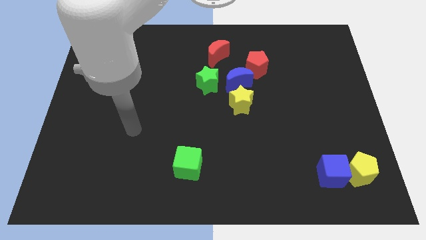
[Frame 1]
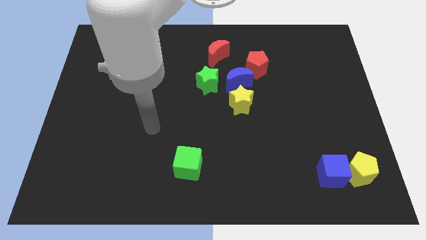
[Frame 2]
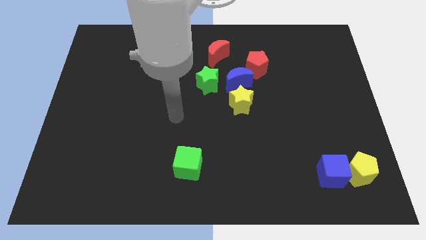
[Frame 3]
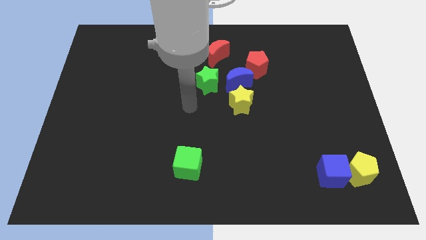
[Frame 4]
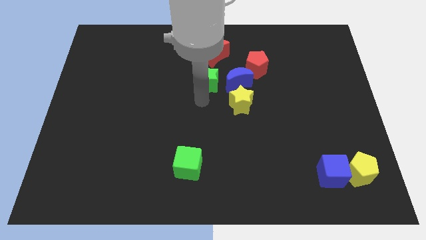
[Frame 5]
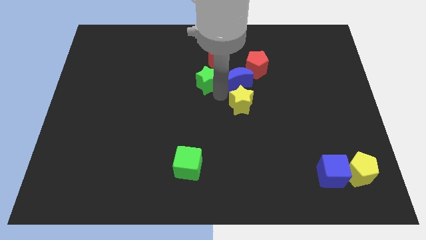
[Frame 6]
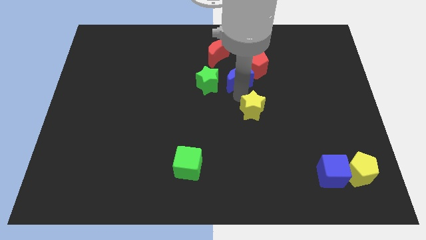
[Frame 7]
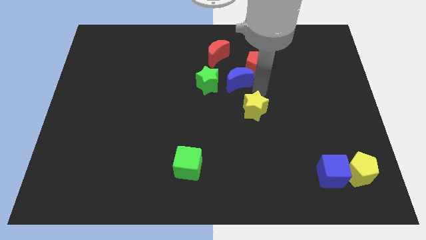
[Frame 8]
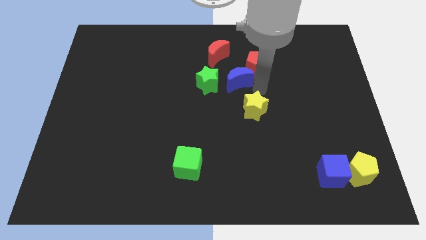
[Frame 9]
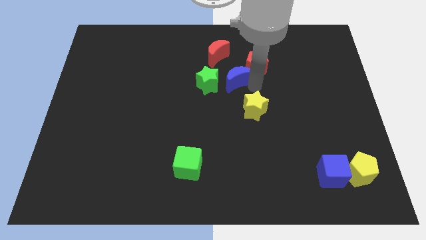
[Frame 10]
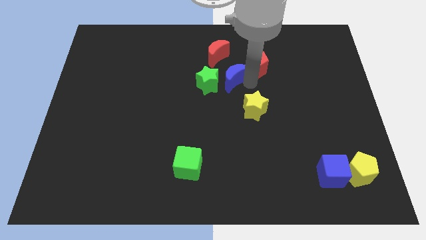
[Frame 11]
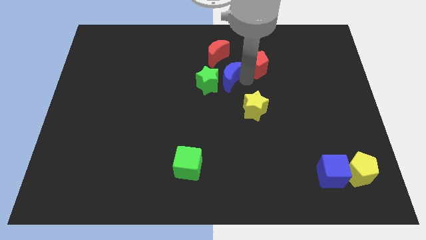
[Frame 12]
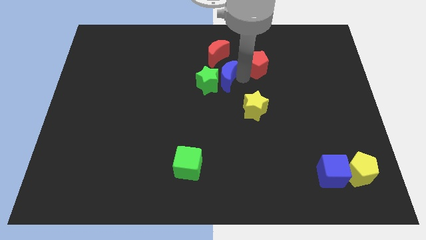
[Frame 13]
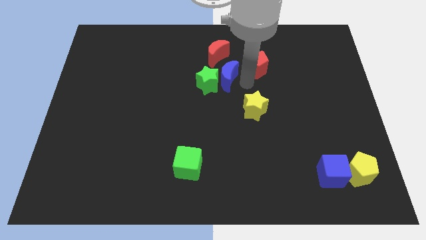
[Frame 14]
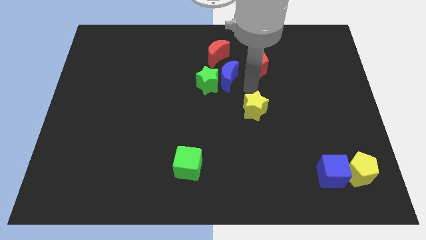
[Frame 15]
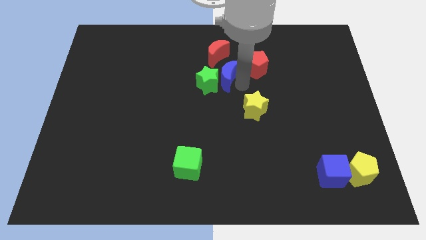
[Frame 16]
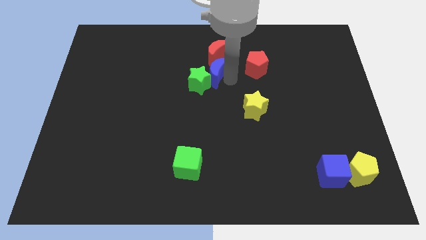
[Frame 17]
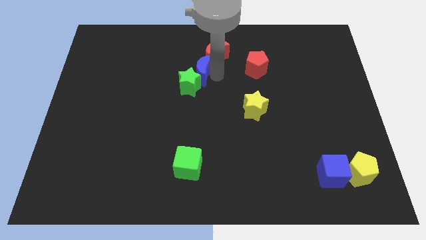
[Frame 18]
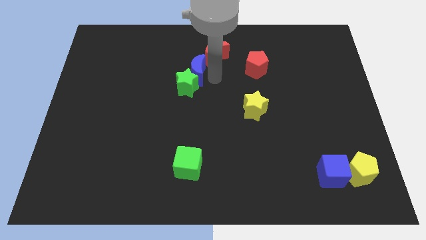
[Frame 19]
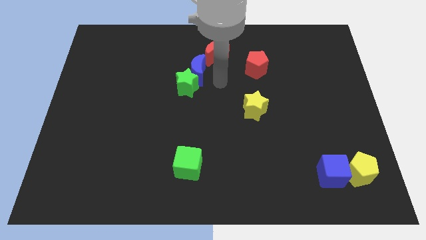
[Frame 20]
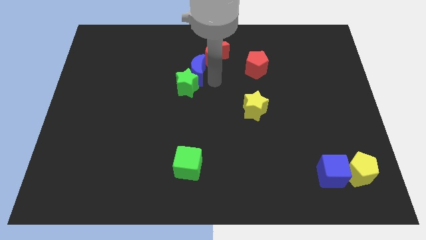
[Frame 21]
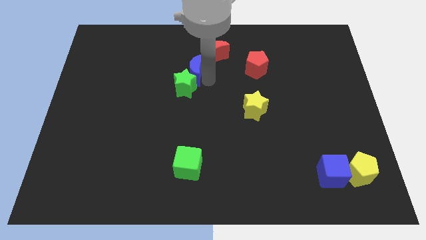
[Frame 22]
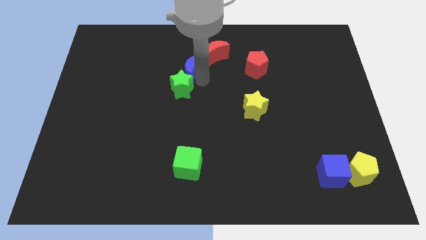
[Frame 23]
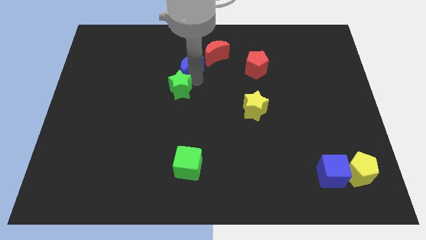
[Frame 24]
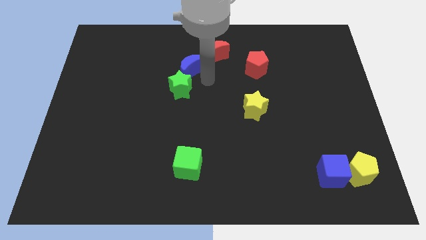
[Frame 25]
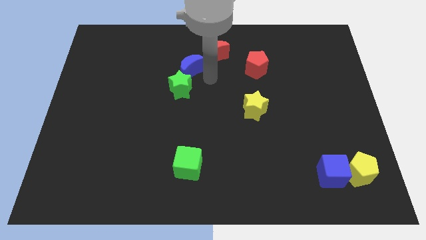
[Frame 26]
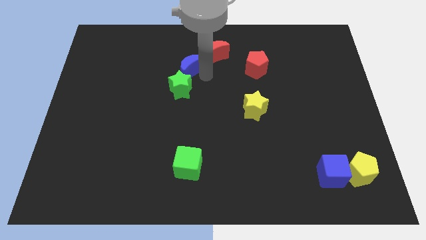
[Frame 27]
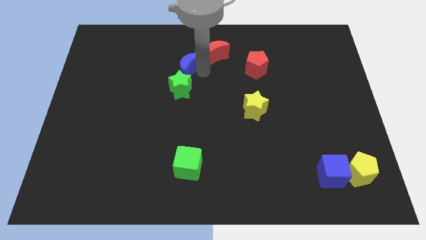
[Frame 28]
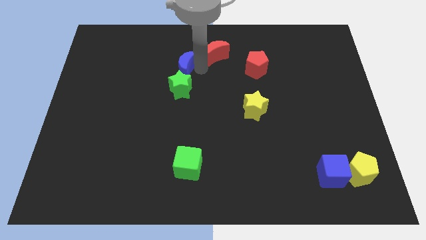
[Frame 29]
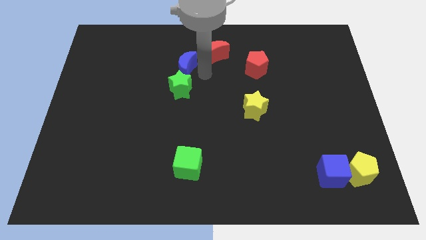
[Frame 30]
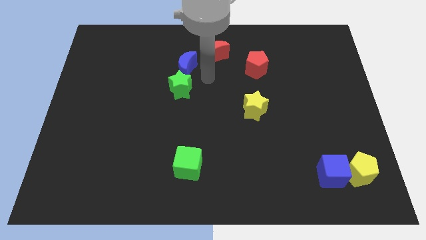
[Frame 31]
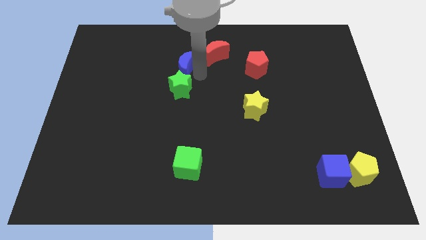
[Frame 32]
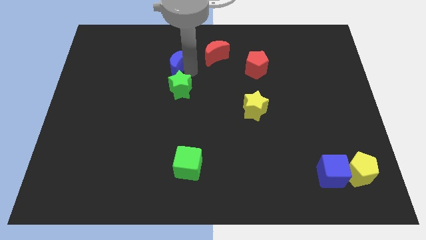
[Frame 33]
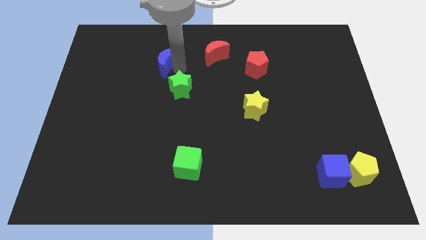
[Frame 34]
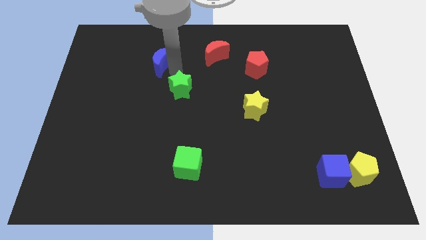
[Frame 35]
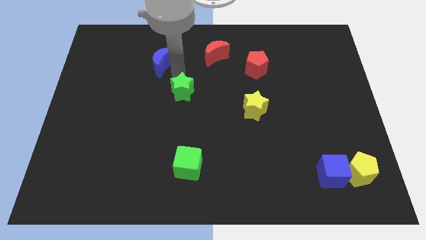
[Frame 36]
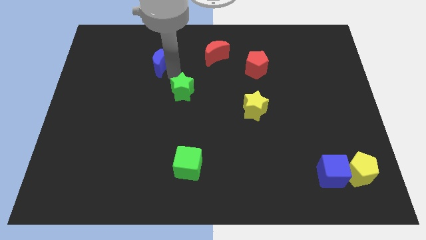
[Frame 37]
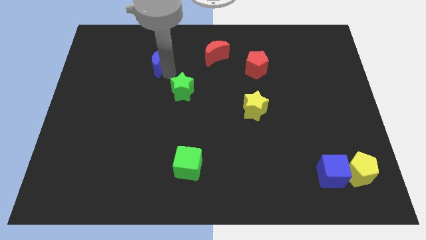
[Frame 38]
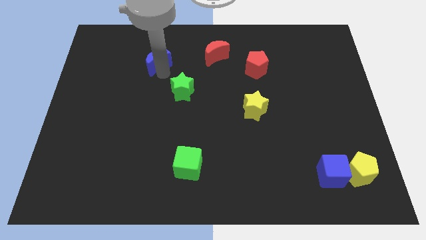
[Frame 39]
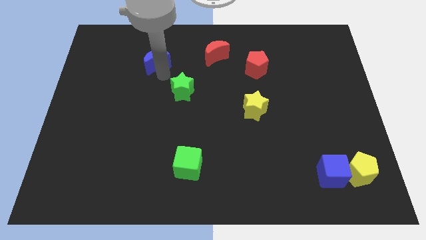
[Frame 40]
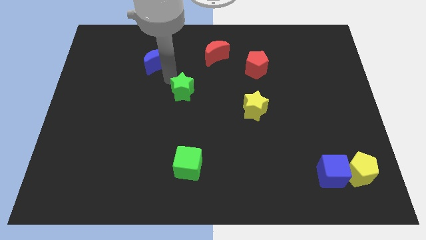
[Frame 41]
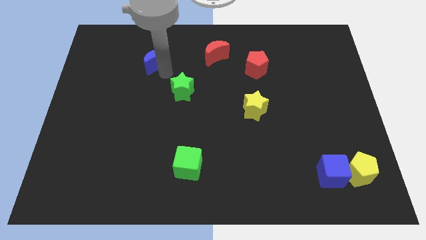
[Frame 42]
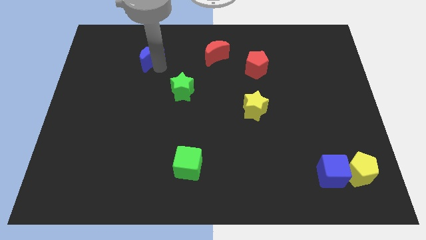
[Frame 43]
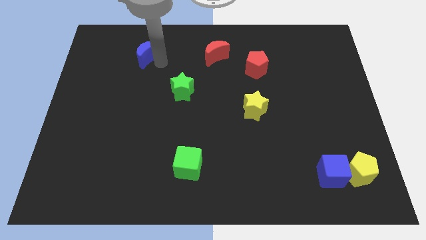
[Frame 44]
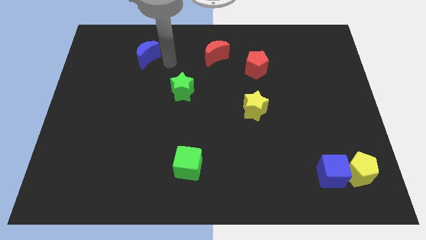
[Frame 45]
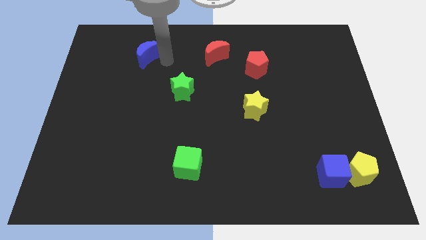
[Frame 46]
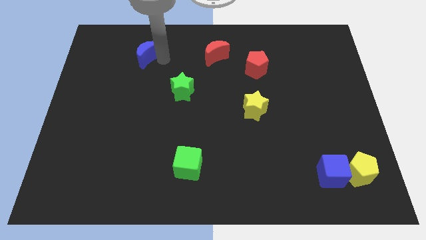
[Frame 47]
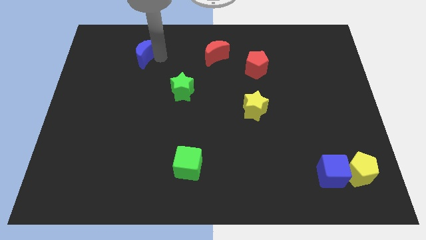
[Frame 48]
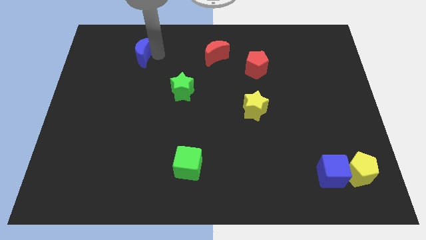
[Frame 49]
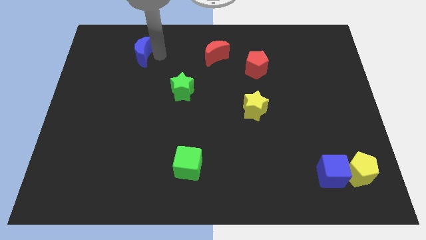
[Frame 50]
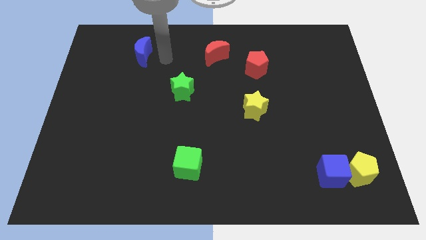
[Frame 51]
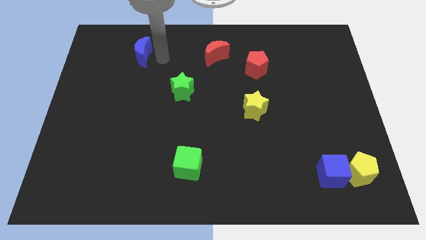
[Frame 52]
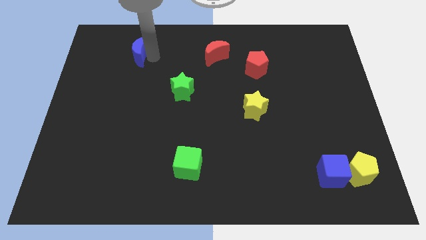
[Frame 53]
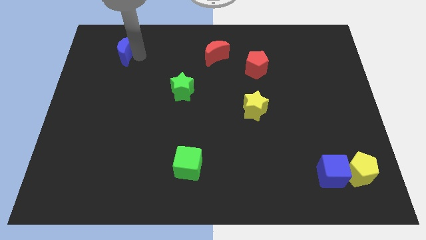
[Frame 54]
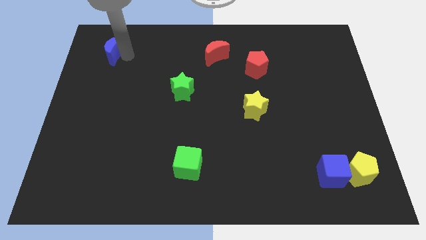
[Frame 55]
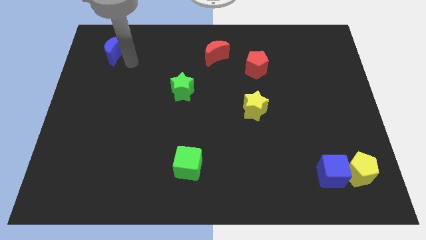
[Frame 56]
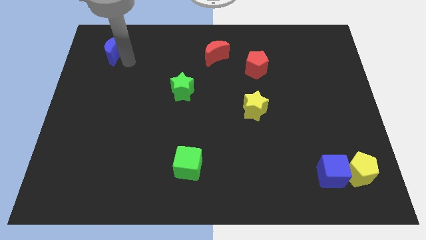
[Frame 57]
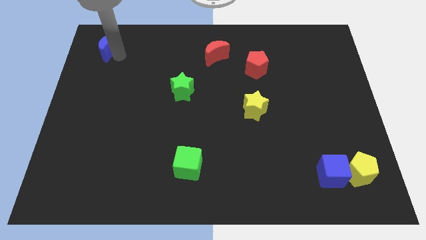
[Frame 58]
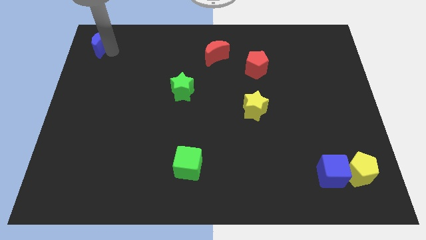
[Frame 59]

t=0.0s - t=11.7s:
slide the blue moon to the top left

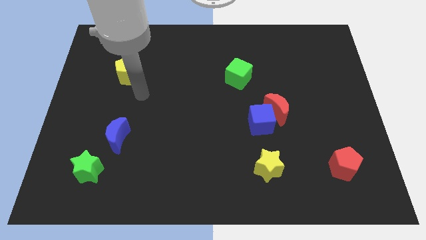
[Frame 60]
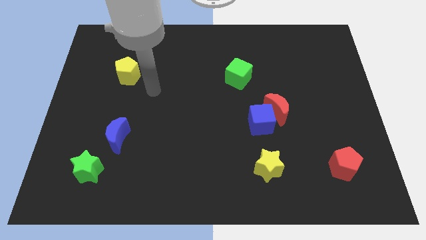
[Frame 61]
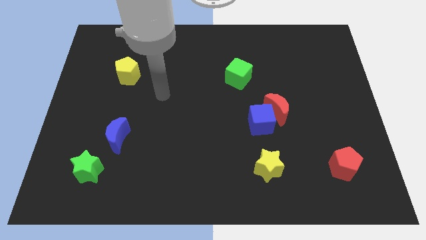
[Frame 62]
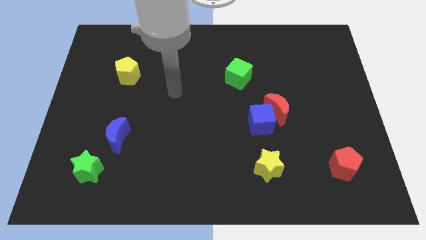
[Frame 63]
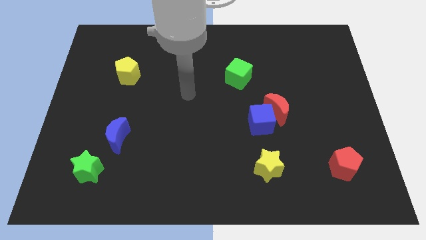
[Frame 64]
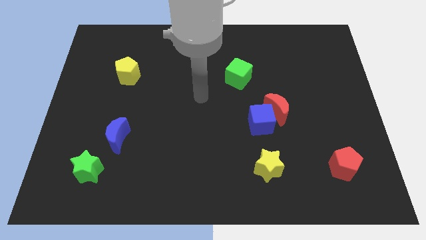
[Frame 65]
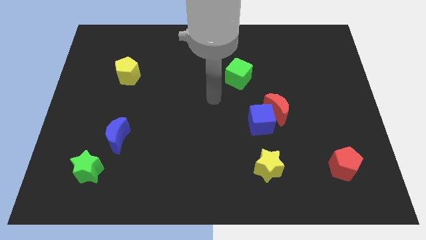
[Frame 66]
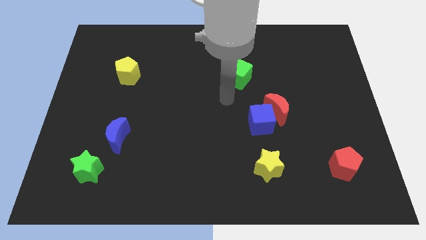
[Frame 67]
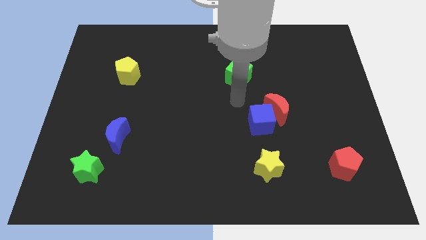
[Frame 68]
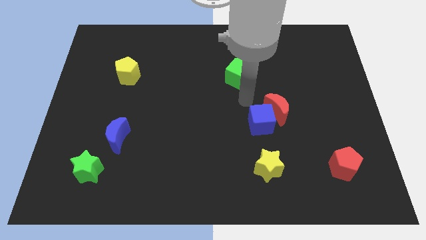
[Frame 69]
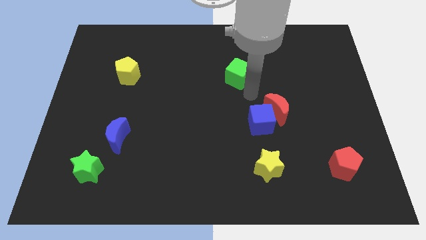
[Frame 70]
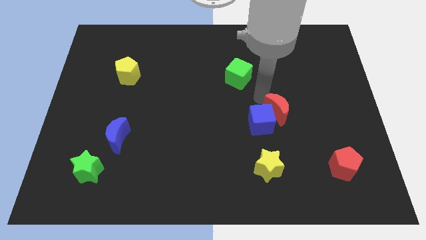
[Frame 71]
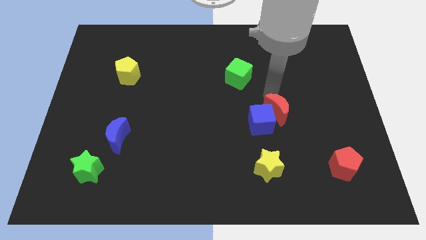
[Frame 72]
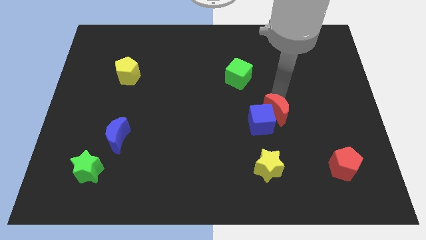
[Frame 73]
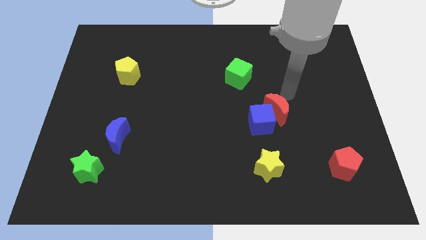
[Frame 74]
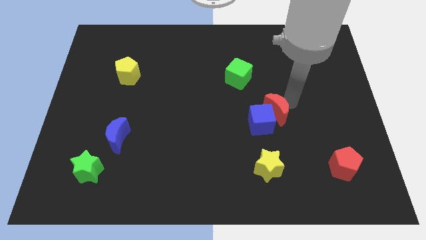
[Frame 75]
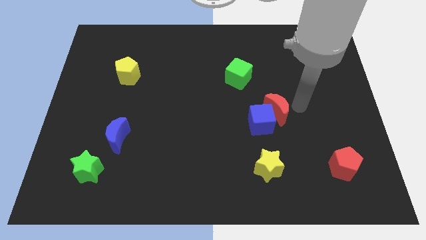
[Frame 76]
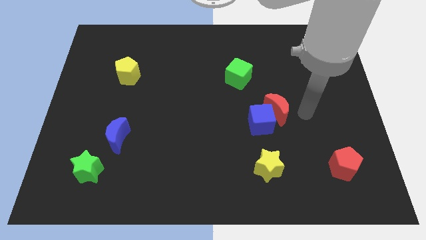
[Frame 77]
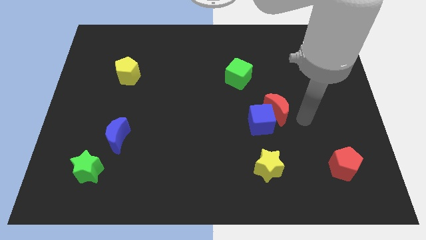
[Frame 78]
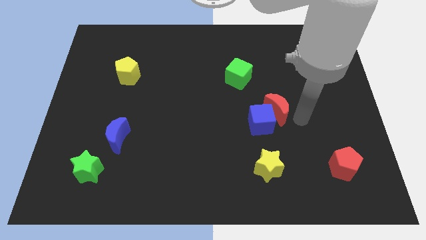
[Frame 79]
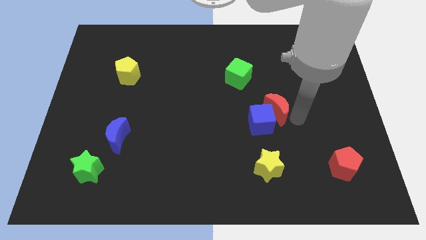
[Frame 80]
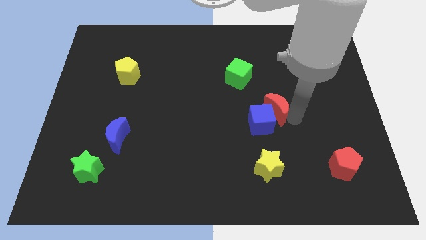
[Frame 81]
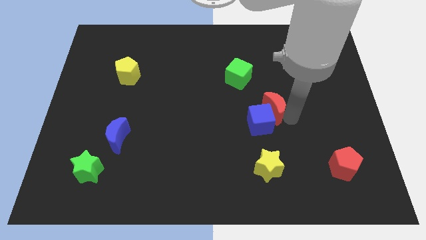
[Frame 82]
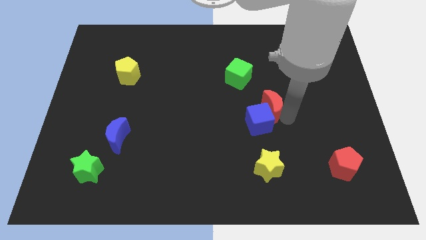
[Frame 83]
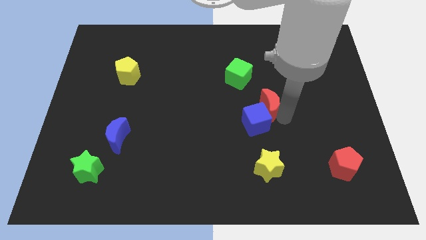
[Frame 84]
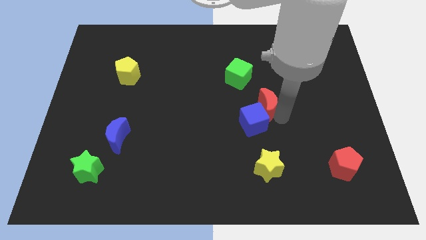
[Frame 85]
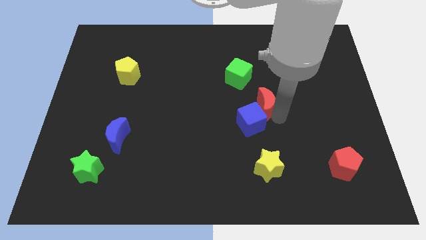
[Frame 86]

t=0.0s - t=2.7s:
move the red moon to the center
